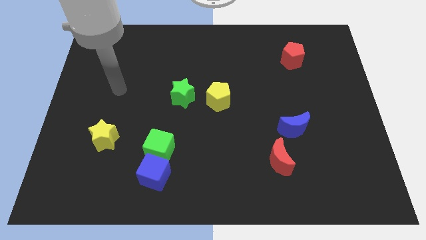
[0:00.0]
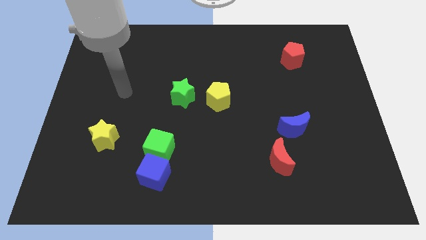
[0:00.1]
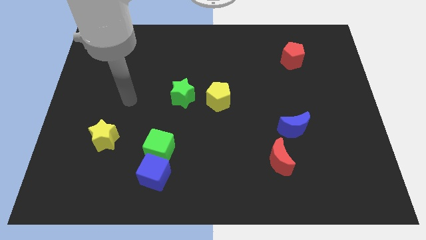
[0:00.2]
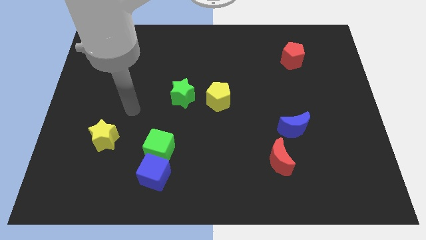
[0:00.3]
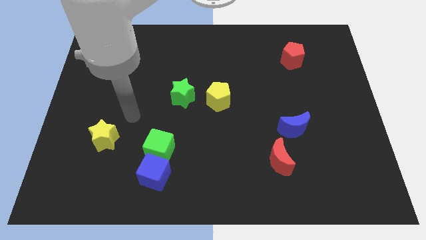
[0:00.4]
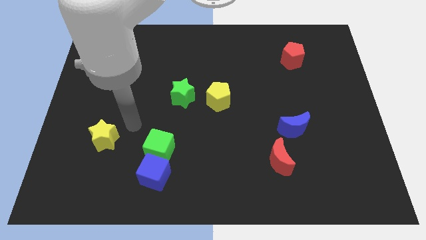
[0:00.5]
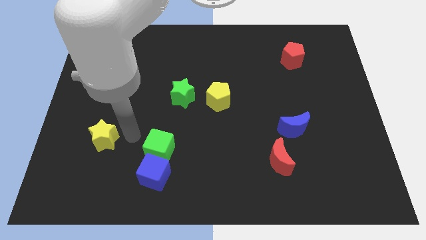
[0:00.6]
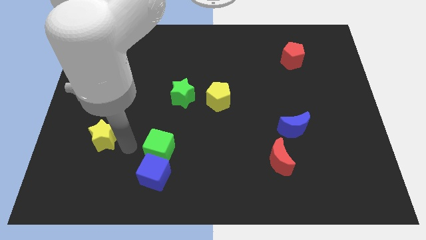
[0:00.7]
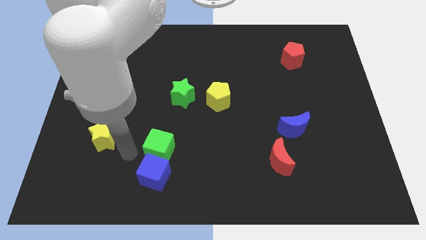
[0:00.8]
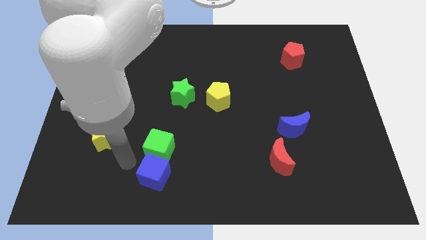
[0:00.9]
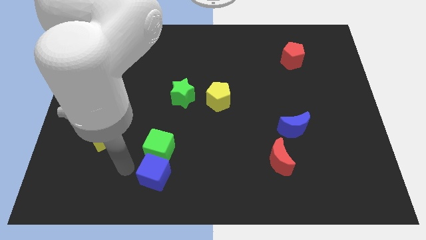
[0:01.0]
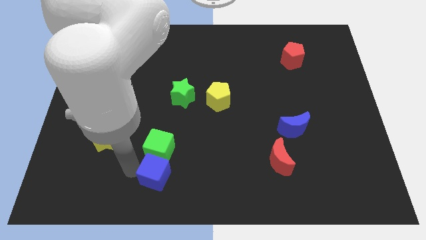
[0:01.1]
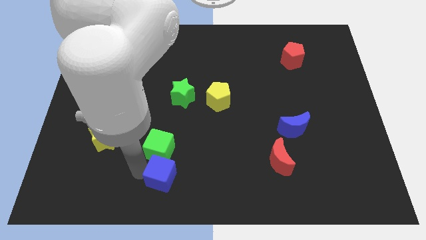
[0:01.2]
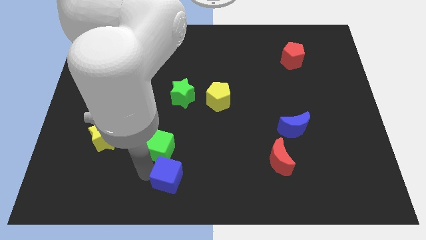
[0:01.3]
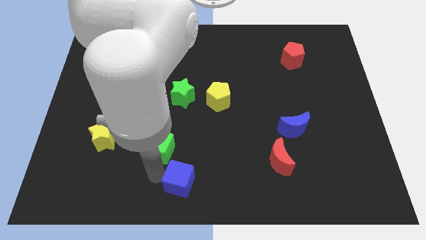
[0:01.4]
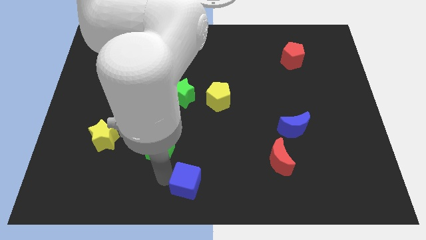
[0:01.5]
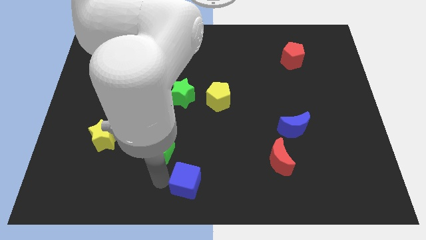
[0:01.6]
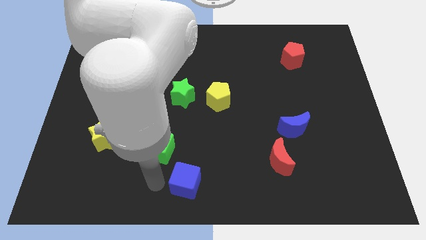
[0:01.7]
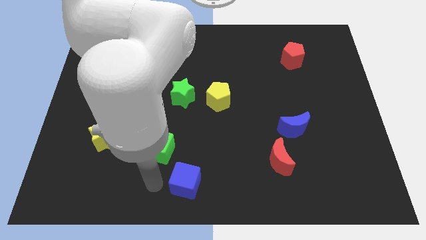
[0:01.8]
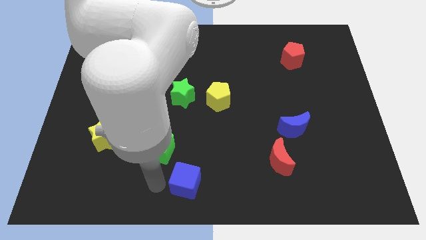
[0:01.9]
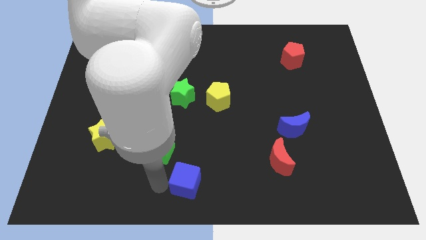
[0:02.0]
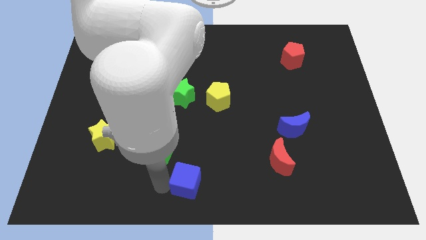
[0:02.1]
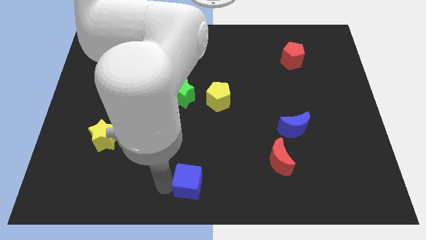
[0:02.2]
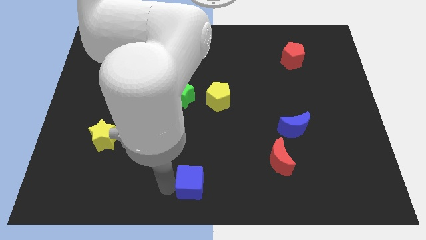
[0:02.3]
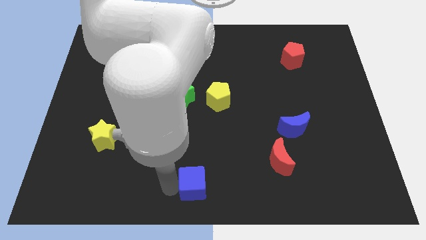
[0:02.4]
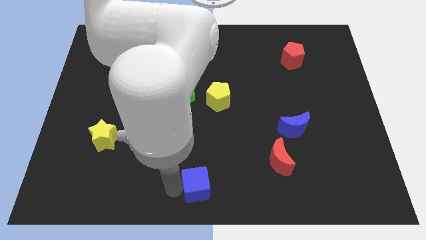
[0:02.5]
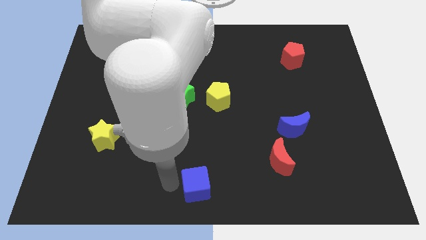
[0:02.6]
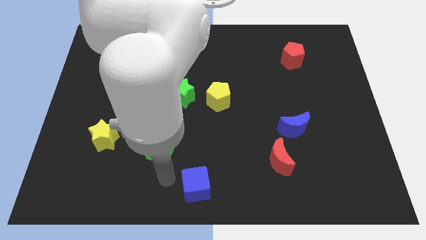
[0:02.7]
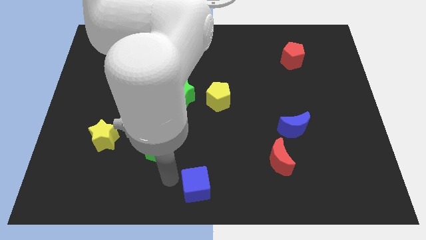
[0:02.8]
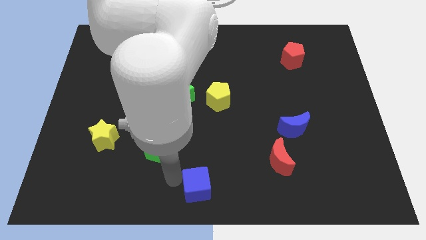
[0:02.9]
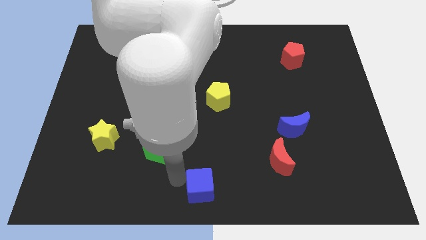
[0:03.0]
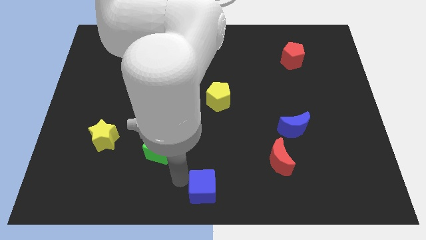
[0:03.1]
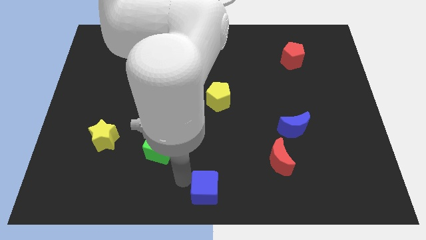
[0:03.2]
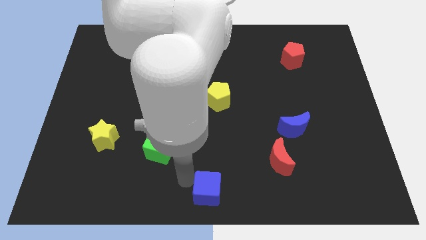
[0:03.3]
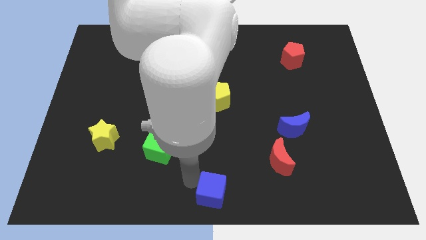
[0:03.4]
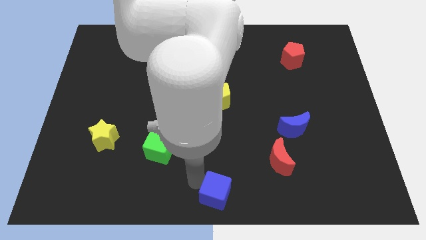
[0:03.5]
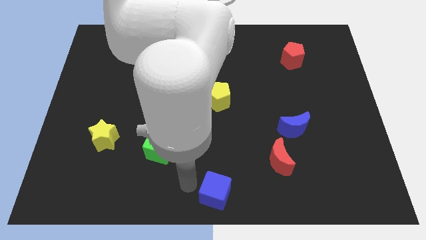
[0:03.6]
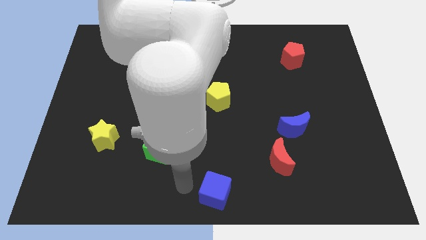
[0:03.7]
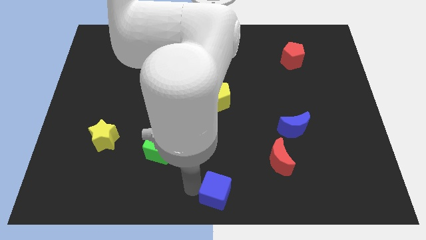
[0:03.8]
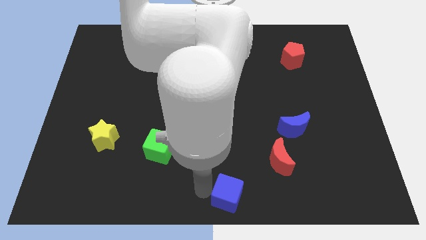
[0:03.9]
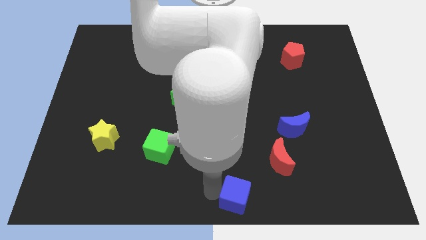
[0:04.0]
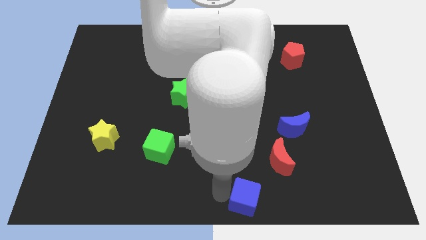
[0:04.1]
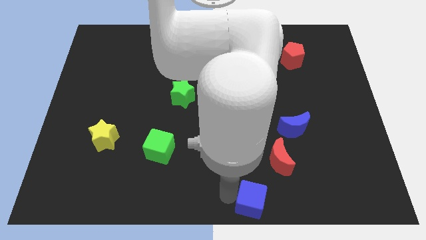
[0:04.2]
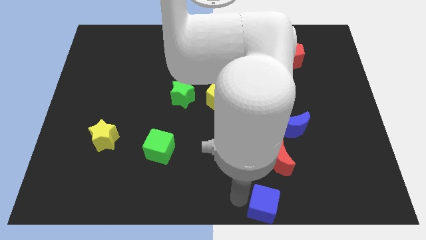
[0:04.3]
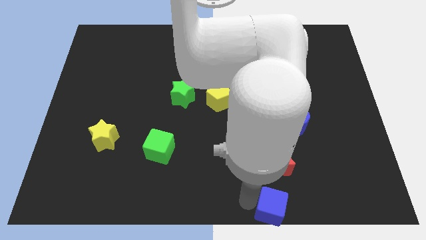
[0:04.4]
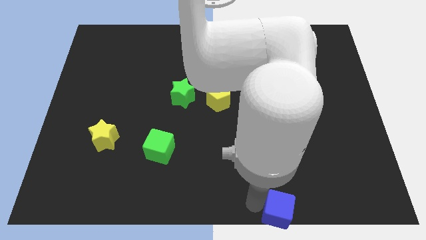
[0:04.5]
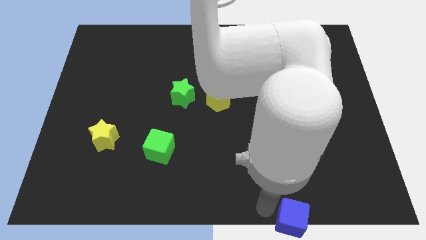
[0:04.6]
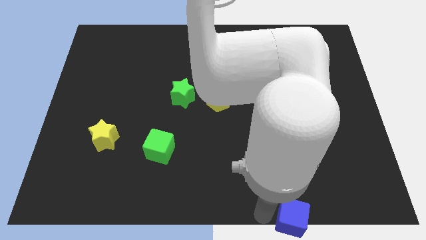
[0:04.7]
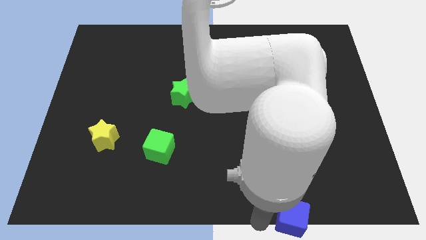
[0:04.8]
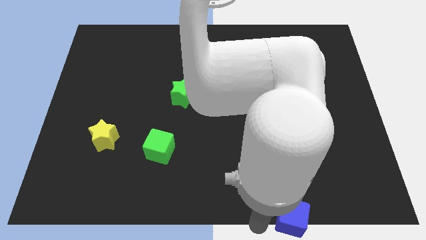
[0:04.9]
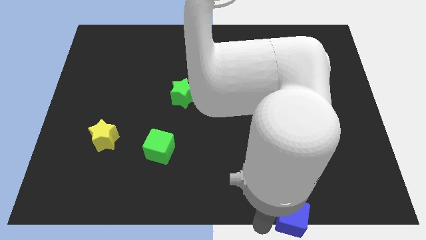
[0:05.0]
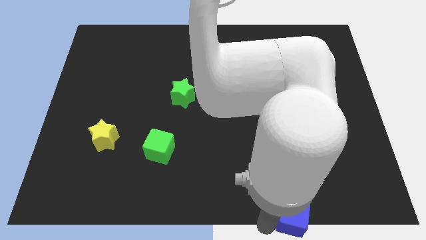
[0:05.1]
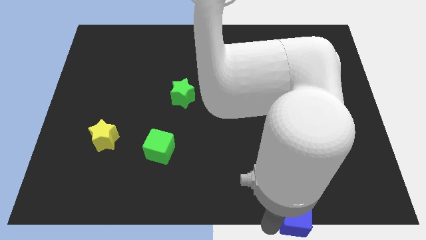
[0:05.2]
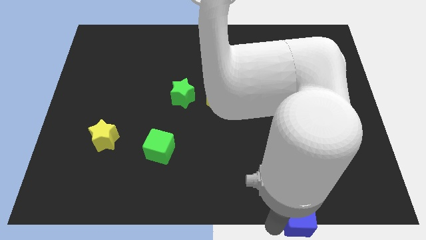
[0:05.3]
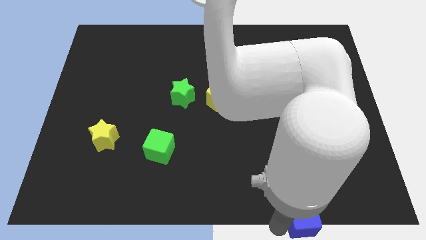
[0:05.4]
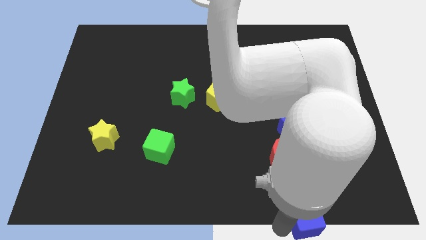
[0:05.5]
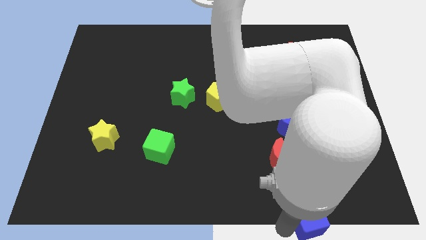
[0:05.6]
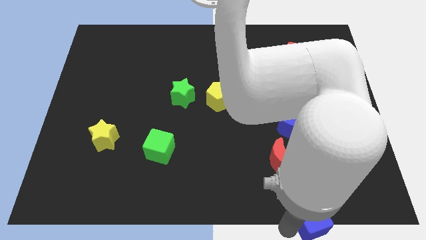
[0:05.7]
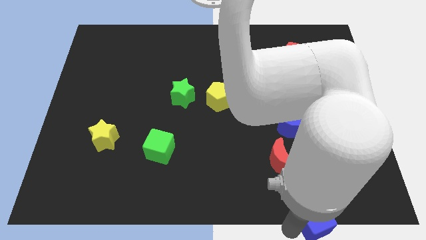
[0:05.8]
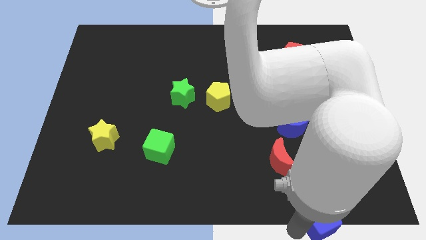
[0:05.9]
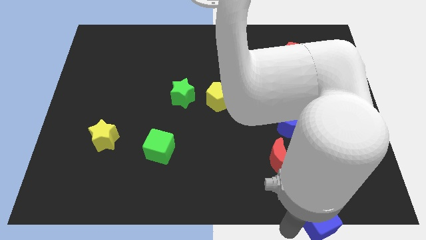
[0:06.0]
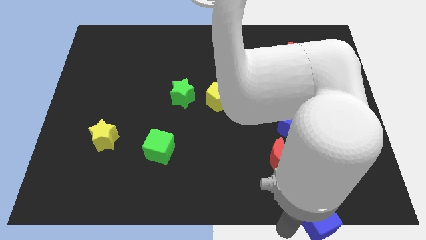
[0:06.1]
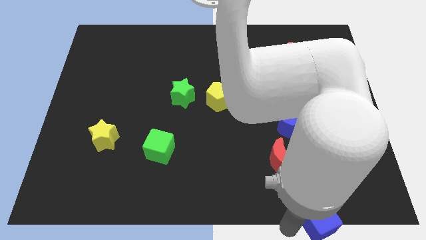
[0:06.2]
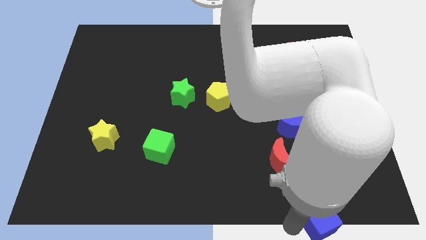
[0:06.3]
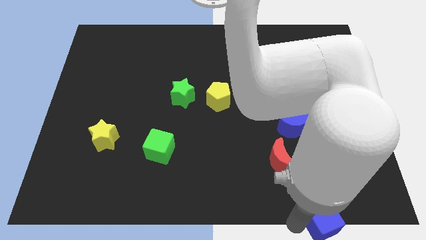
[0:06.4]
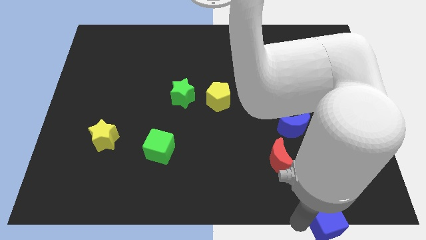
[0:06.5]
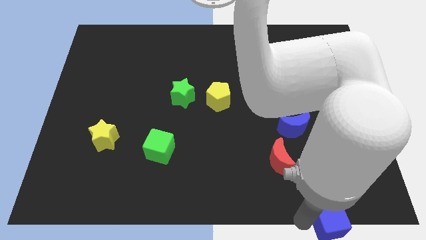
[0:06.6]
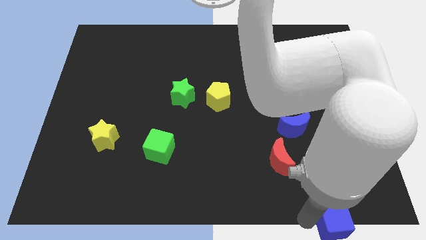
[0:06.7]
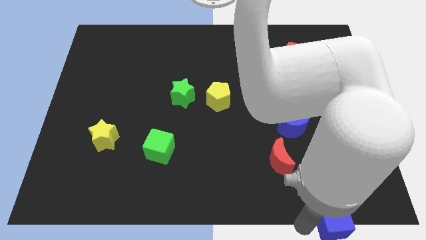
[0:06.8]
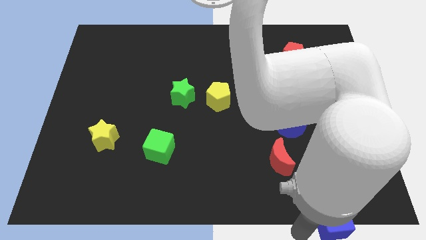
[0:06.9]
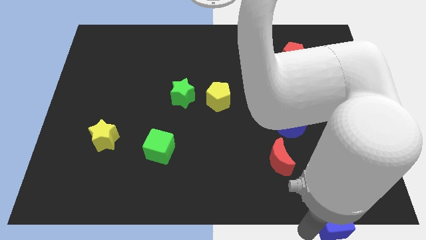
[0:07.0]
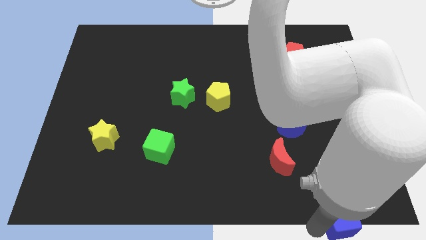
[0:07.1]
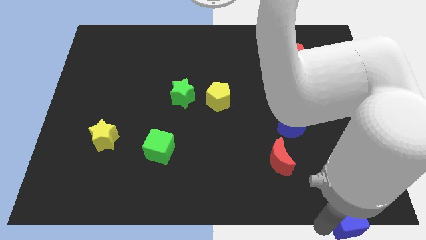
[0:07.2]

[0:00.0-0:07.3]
slide the blue cube to the bottom right of the board

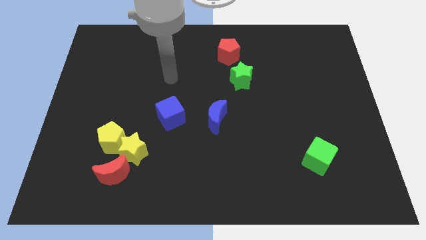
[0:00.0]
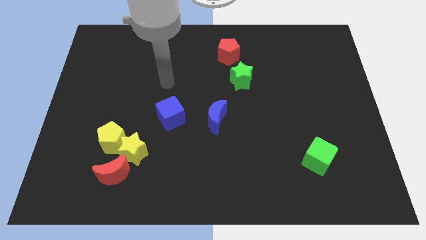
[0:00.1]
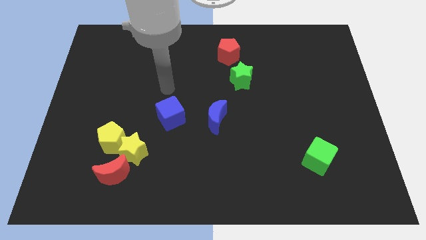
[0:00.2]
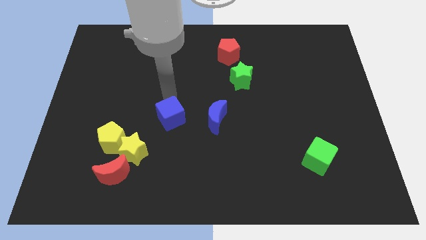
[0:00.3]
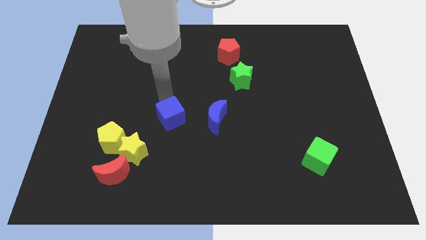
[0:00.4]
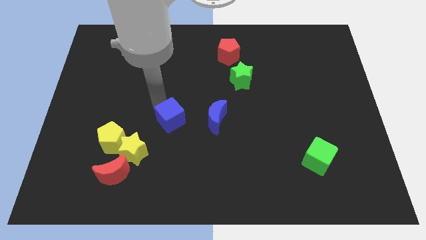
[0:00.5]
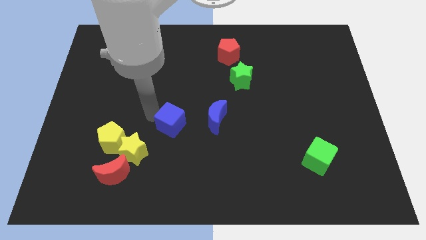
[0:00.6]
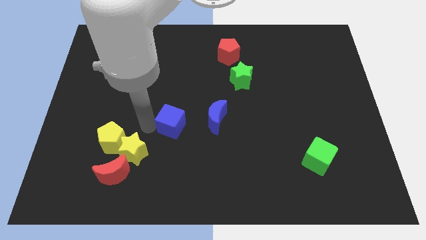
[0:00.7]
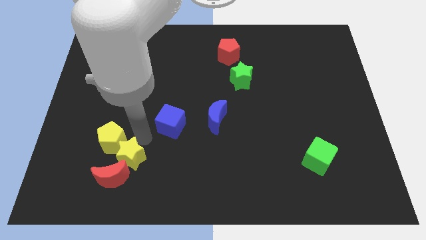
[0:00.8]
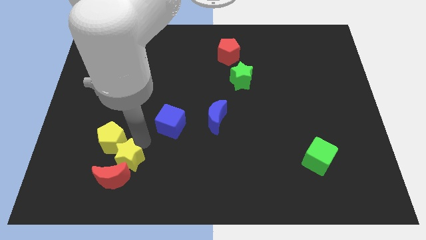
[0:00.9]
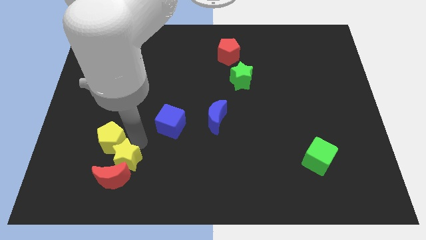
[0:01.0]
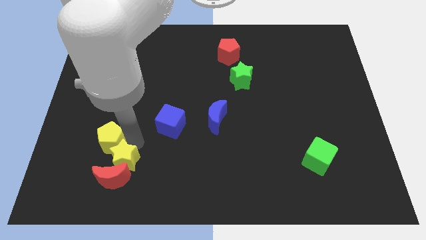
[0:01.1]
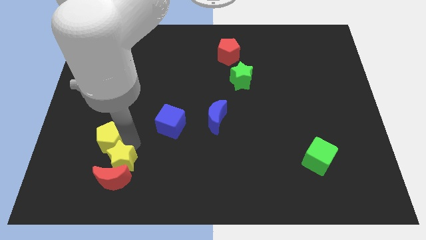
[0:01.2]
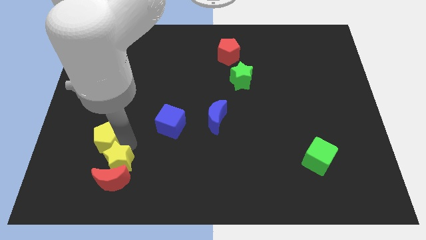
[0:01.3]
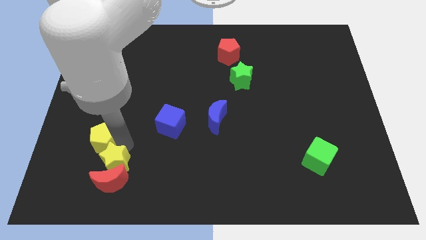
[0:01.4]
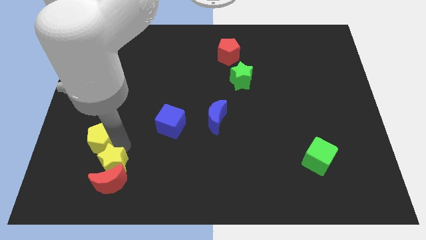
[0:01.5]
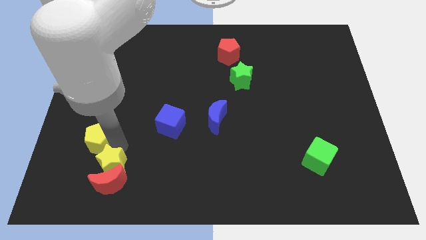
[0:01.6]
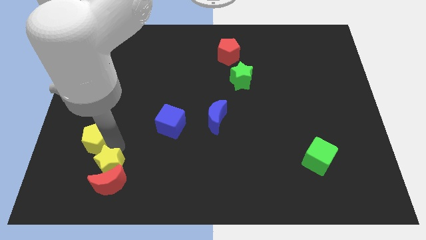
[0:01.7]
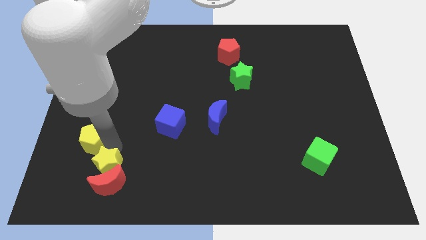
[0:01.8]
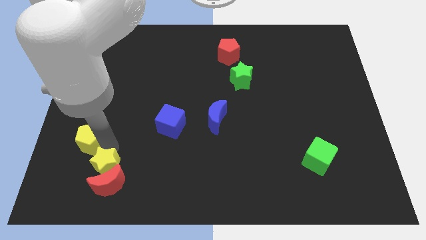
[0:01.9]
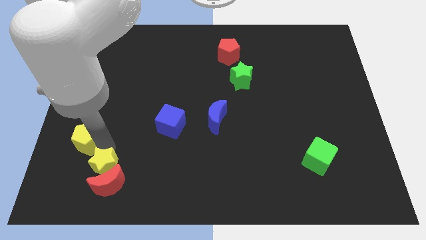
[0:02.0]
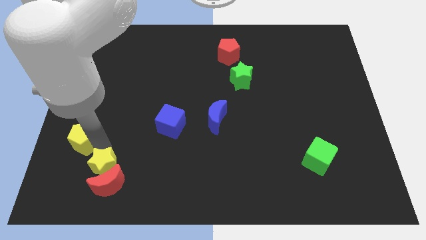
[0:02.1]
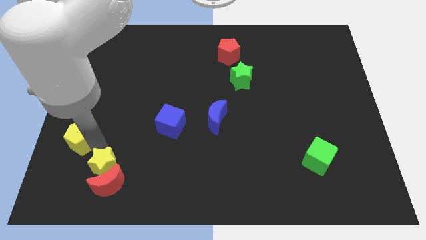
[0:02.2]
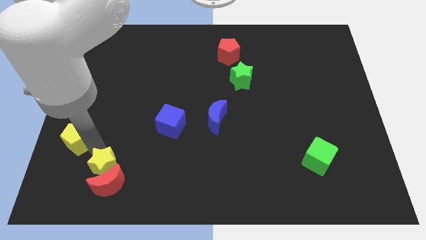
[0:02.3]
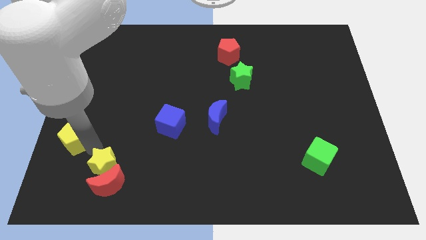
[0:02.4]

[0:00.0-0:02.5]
push the yellow pentagon to the left side of the board
